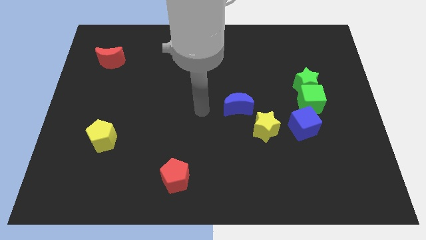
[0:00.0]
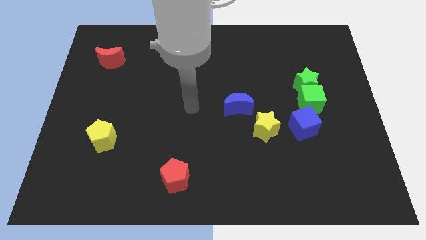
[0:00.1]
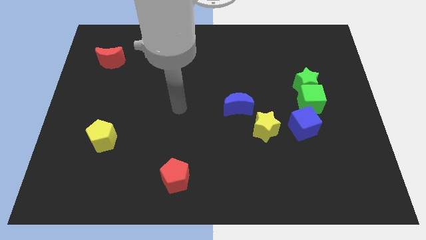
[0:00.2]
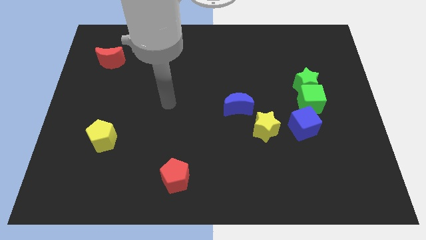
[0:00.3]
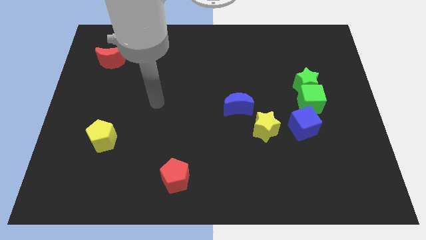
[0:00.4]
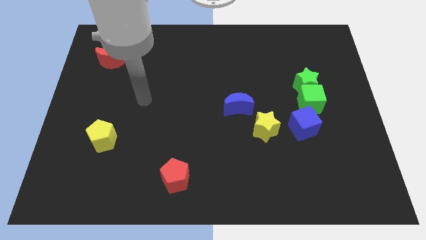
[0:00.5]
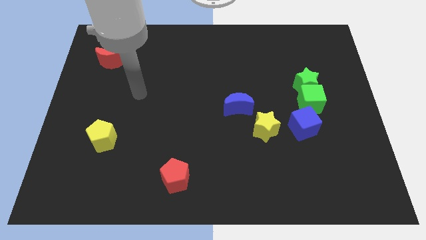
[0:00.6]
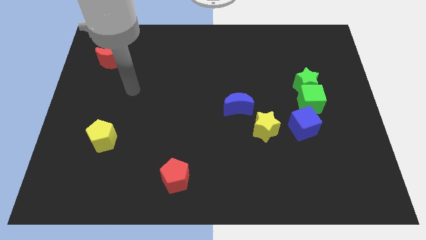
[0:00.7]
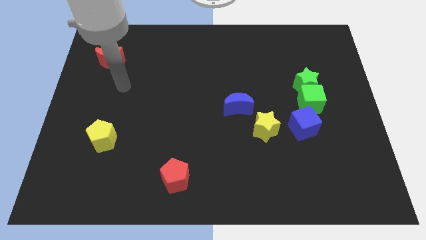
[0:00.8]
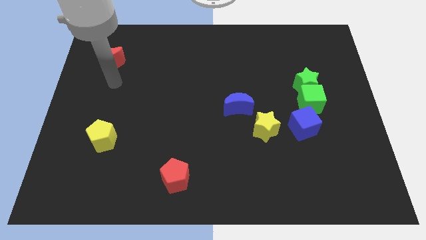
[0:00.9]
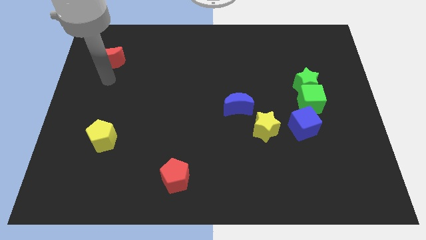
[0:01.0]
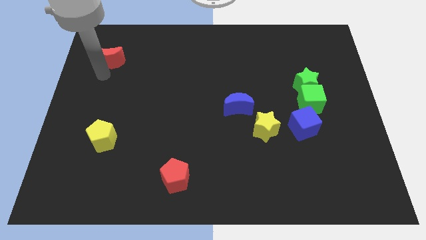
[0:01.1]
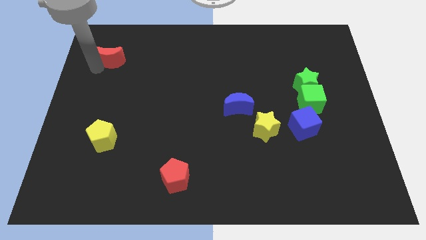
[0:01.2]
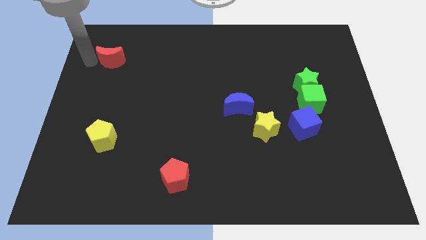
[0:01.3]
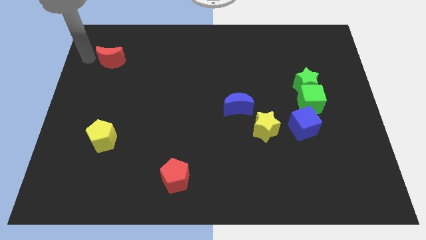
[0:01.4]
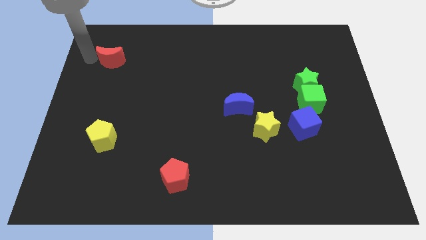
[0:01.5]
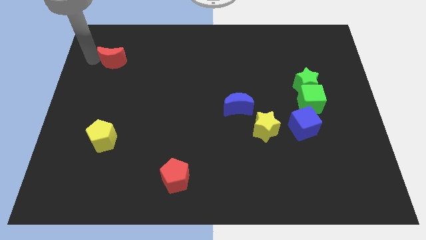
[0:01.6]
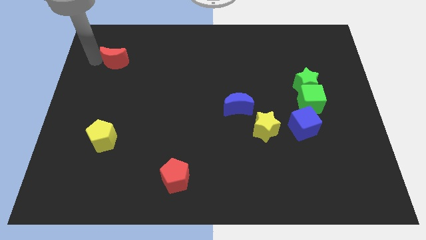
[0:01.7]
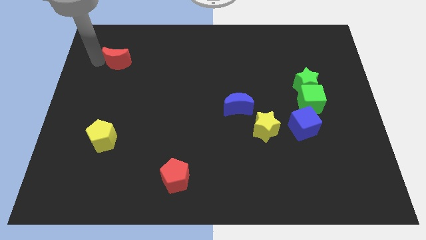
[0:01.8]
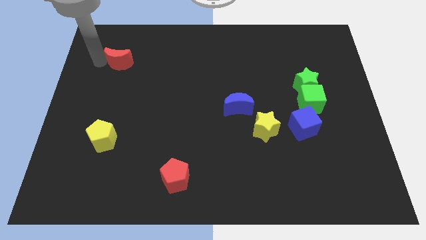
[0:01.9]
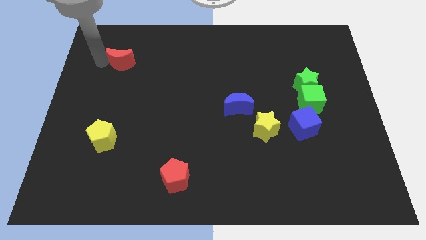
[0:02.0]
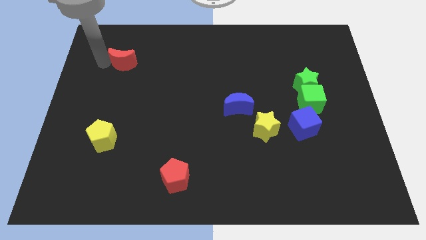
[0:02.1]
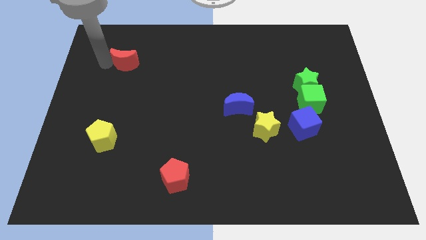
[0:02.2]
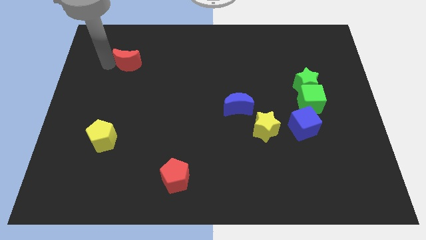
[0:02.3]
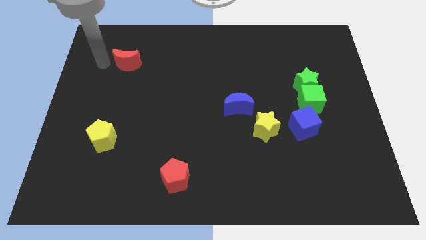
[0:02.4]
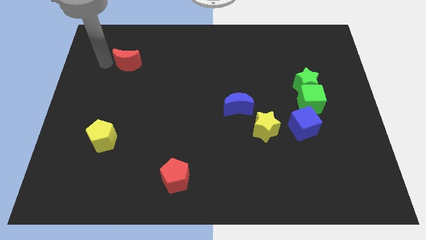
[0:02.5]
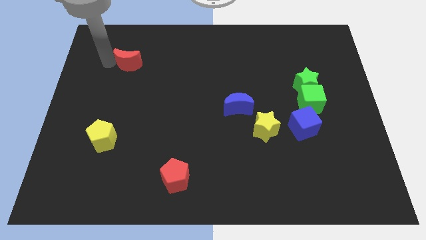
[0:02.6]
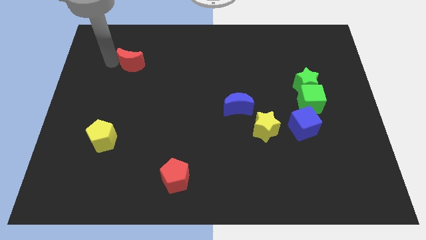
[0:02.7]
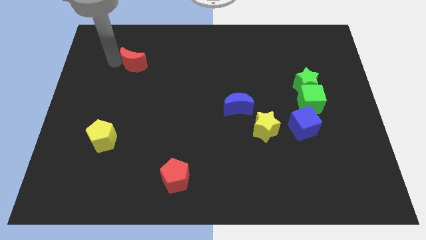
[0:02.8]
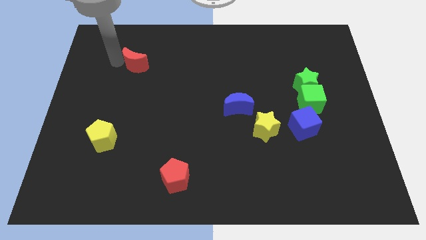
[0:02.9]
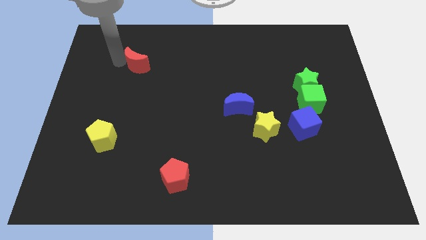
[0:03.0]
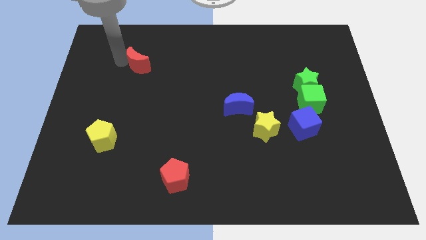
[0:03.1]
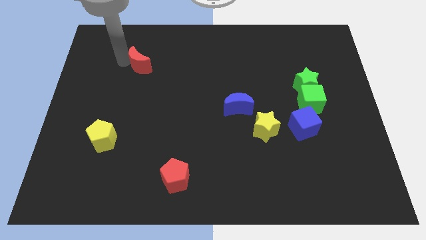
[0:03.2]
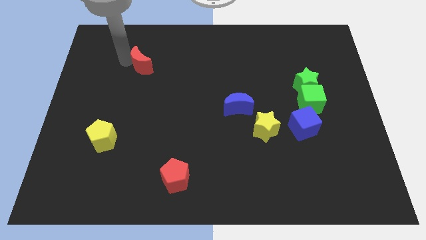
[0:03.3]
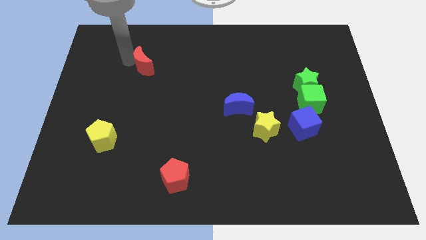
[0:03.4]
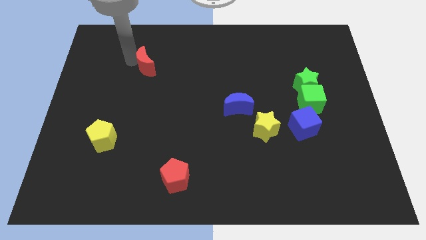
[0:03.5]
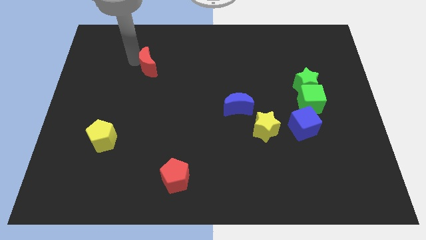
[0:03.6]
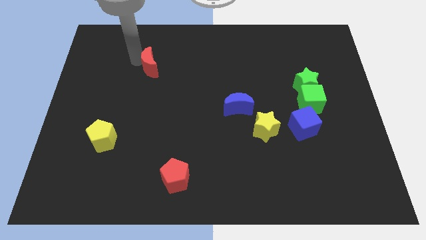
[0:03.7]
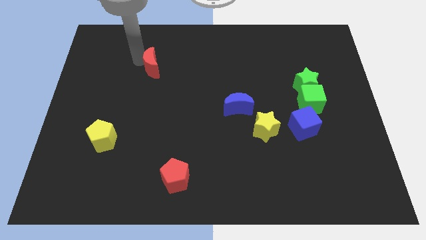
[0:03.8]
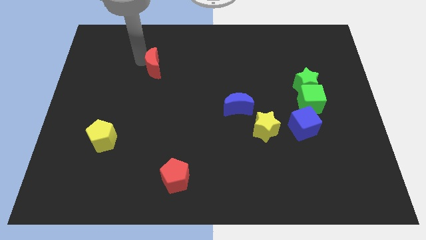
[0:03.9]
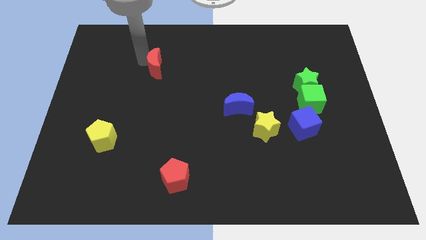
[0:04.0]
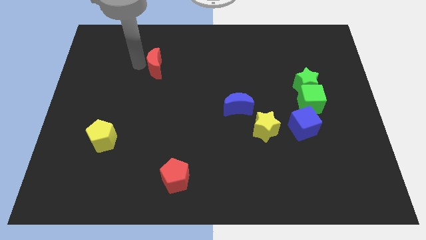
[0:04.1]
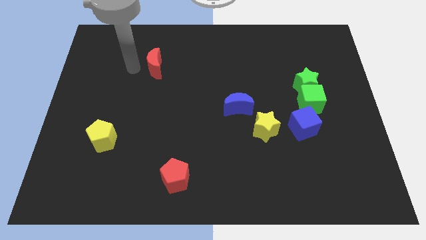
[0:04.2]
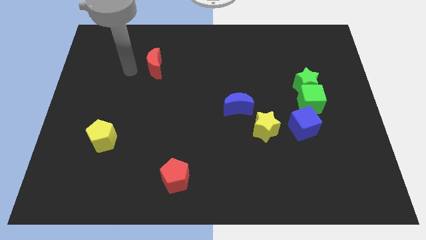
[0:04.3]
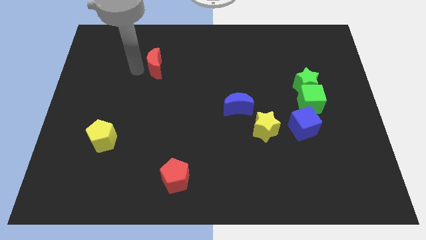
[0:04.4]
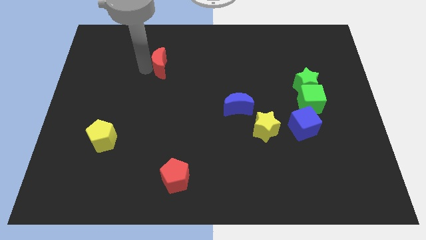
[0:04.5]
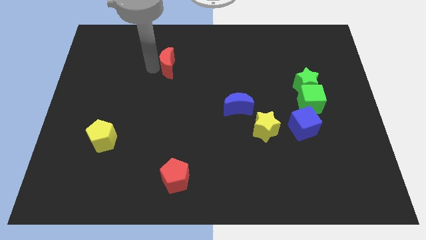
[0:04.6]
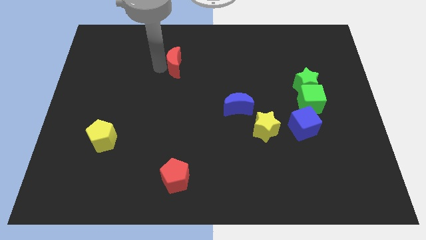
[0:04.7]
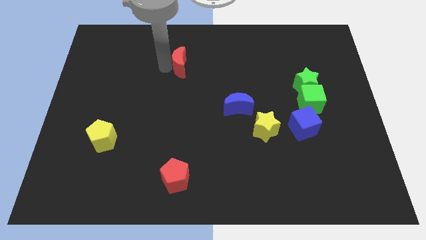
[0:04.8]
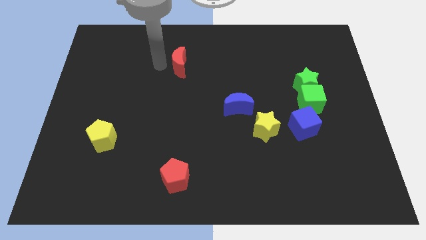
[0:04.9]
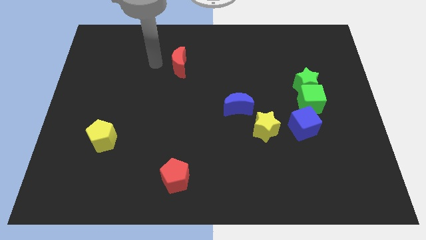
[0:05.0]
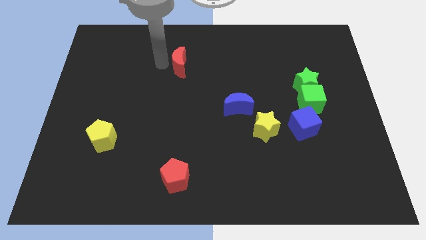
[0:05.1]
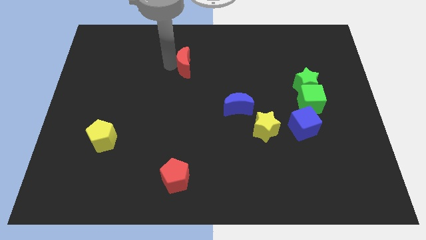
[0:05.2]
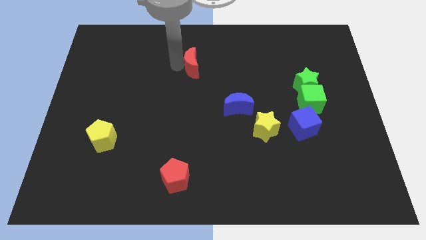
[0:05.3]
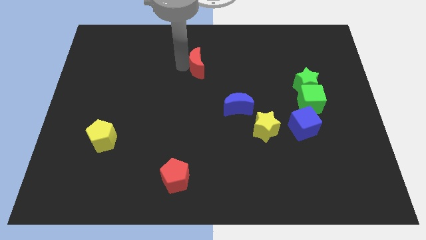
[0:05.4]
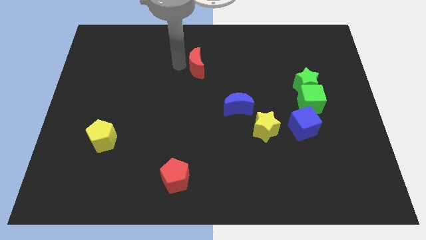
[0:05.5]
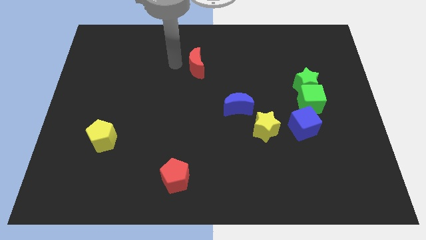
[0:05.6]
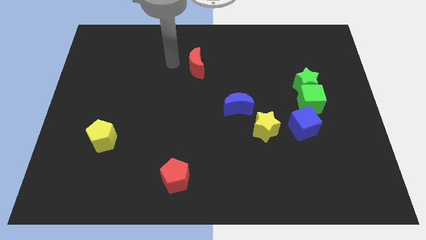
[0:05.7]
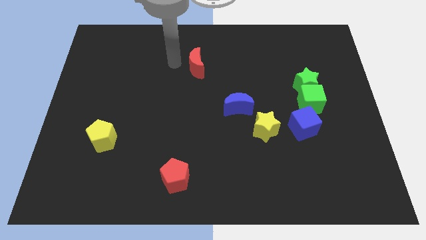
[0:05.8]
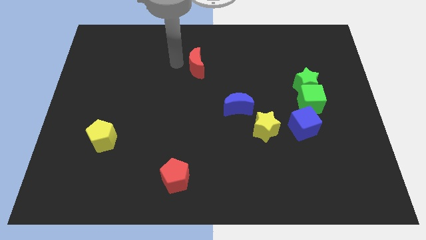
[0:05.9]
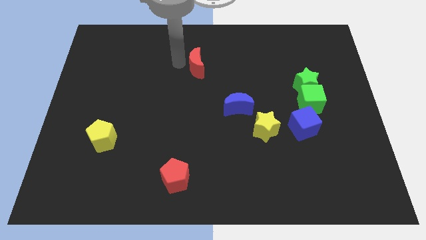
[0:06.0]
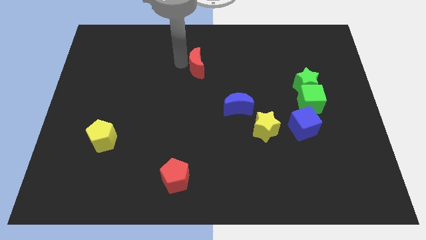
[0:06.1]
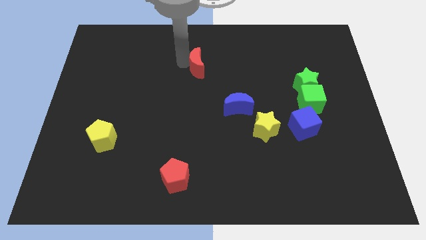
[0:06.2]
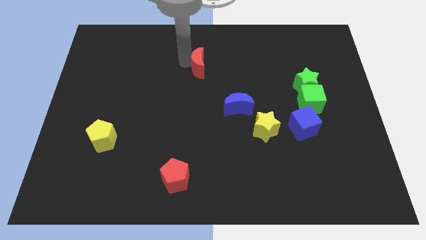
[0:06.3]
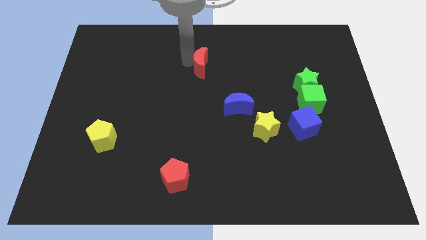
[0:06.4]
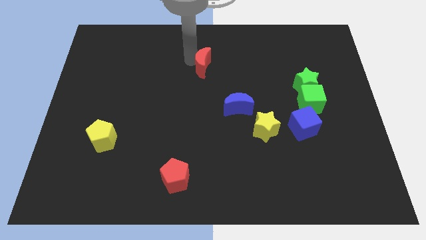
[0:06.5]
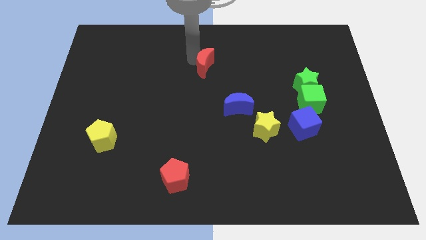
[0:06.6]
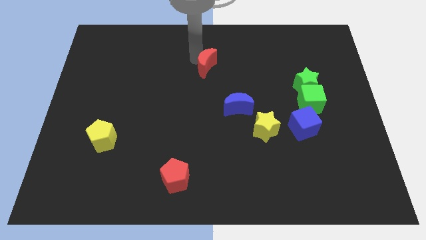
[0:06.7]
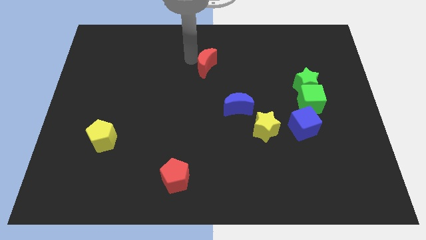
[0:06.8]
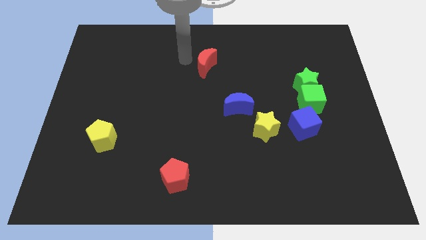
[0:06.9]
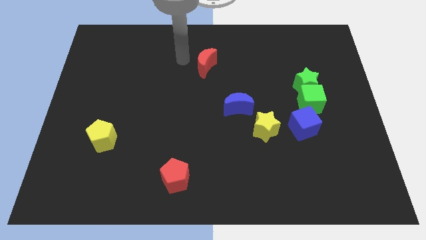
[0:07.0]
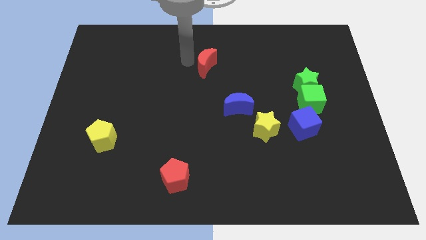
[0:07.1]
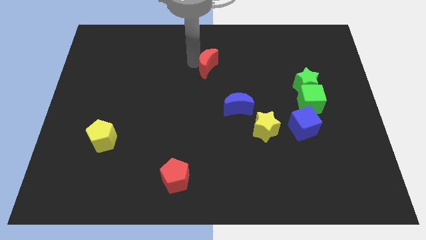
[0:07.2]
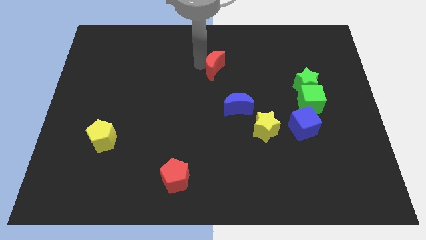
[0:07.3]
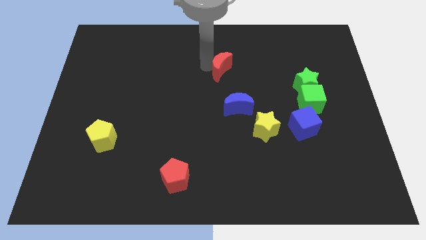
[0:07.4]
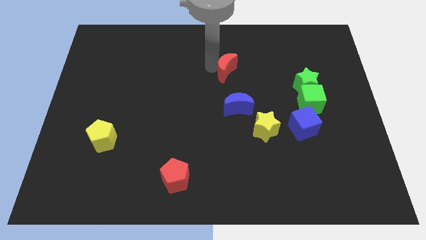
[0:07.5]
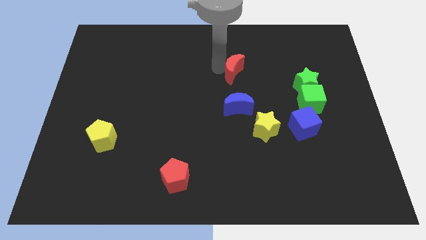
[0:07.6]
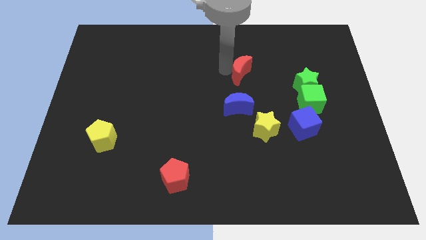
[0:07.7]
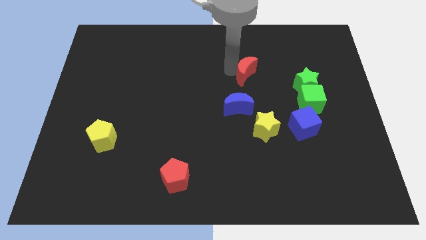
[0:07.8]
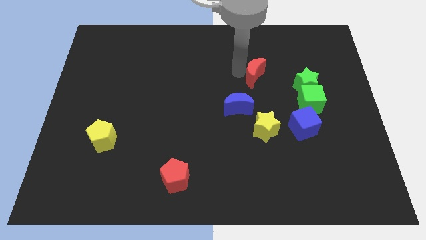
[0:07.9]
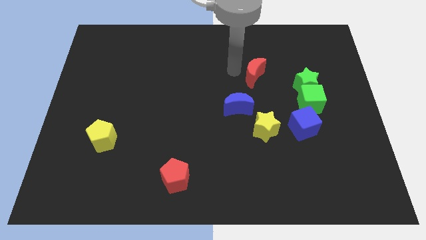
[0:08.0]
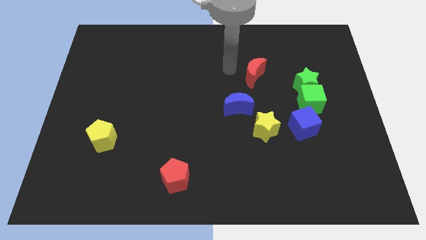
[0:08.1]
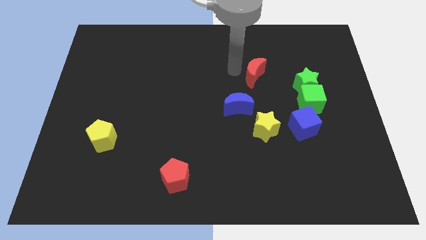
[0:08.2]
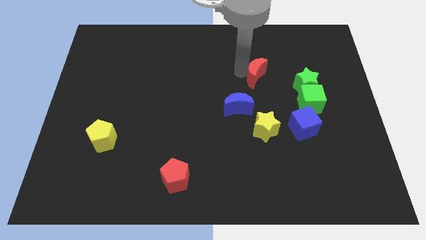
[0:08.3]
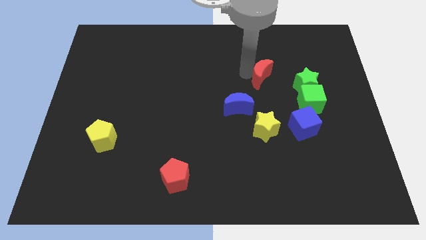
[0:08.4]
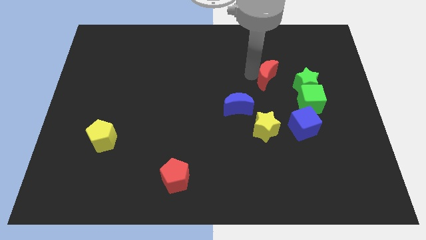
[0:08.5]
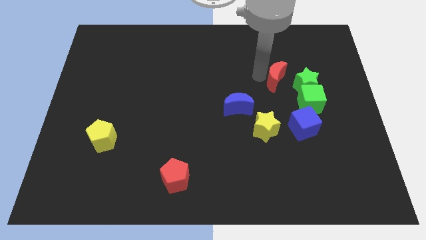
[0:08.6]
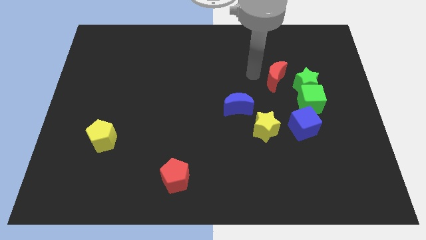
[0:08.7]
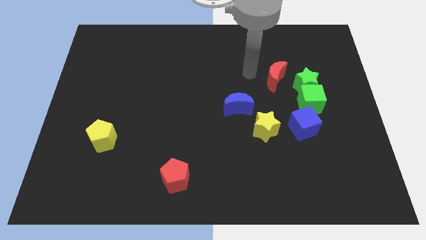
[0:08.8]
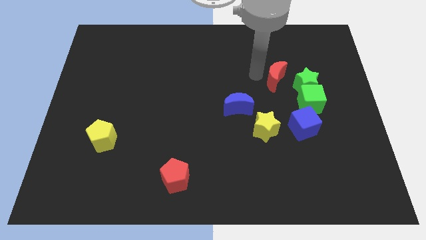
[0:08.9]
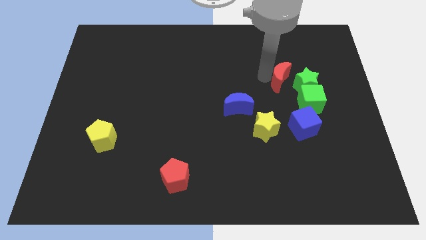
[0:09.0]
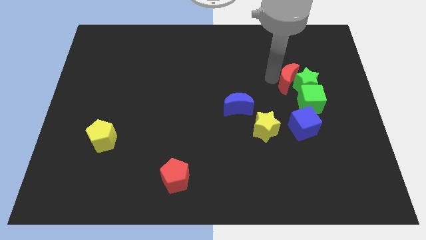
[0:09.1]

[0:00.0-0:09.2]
slide the red moon close to the green star
